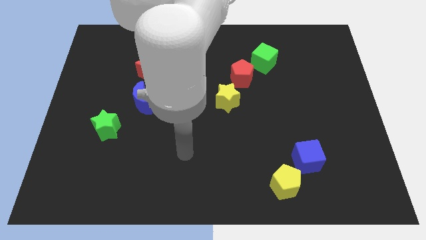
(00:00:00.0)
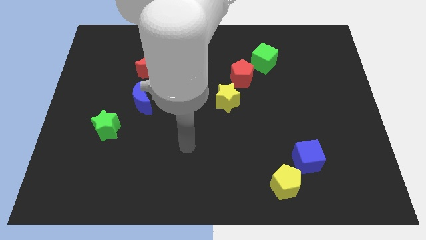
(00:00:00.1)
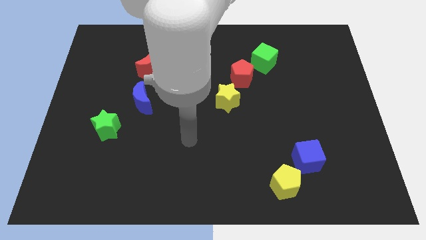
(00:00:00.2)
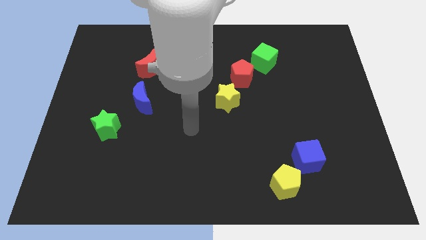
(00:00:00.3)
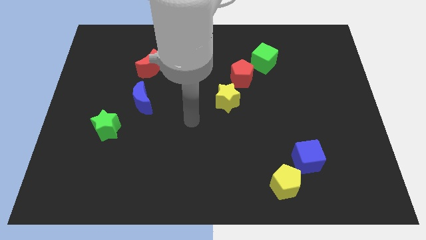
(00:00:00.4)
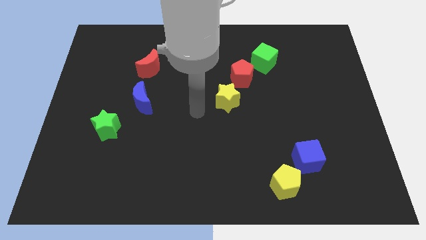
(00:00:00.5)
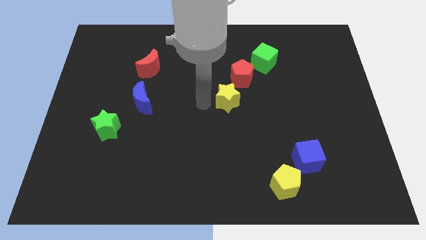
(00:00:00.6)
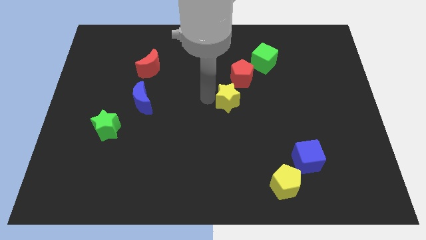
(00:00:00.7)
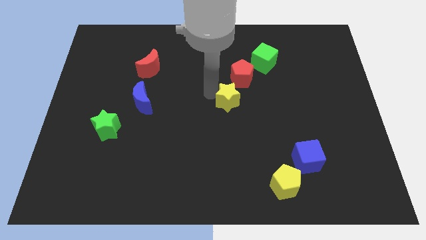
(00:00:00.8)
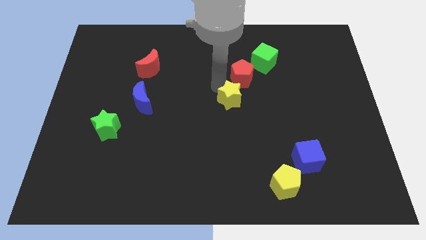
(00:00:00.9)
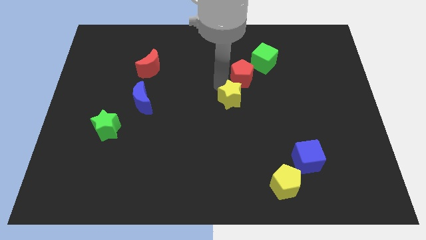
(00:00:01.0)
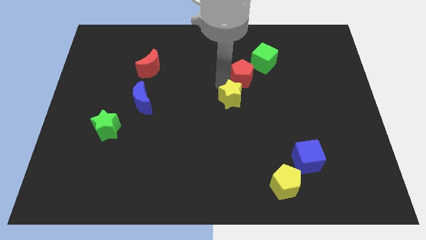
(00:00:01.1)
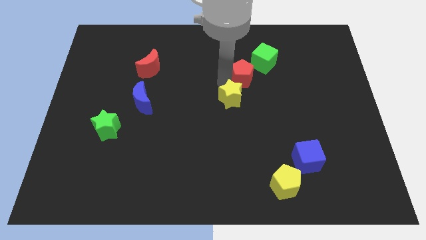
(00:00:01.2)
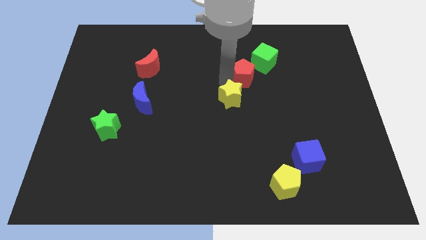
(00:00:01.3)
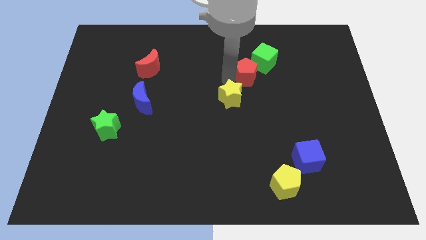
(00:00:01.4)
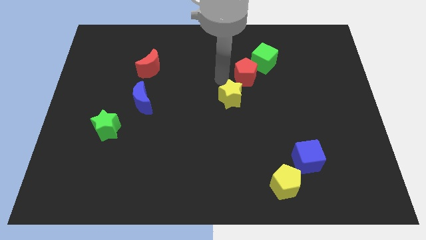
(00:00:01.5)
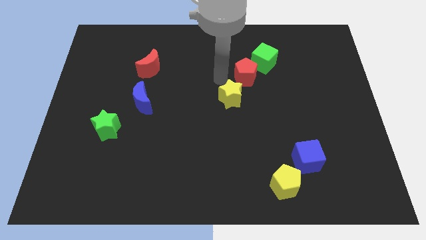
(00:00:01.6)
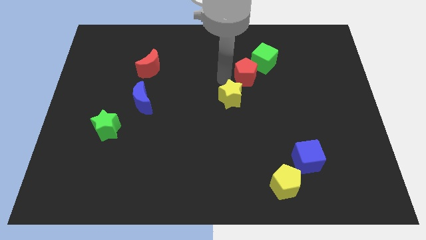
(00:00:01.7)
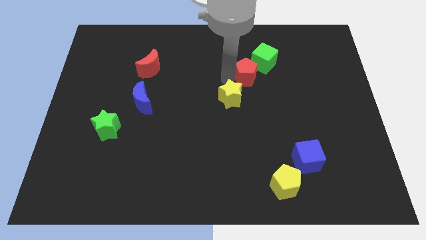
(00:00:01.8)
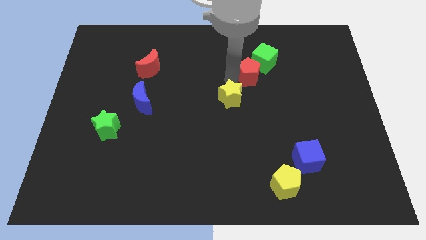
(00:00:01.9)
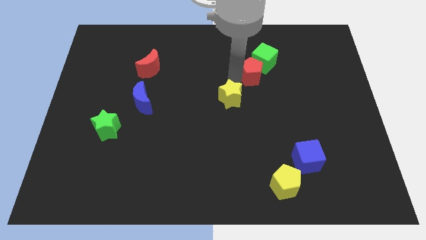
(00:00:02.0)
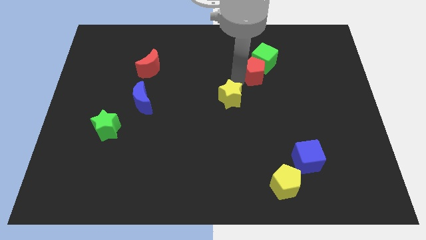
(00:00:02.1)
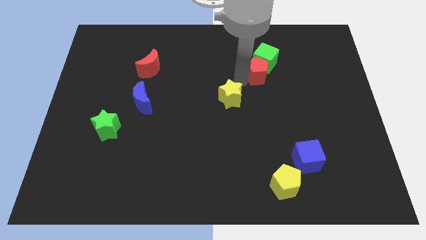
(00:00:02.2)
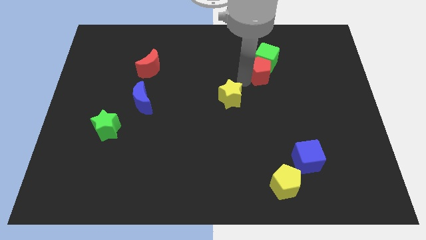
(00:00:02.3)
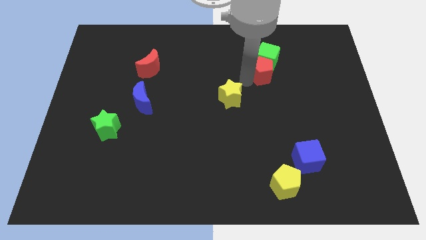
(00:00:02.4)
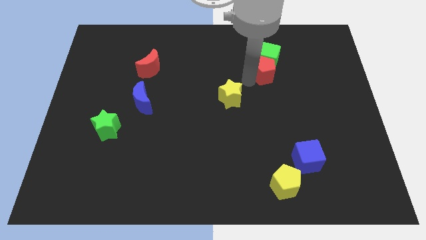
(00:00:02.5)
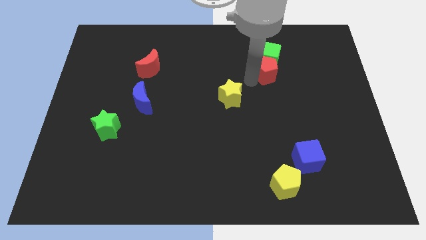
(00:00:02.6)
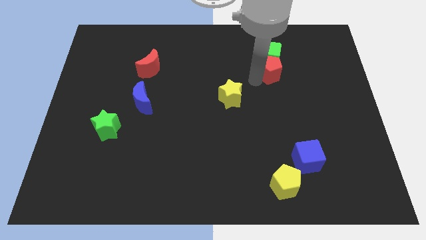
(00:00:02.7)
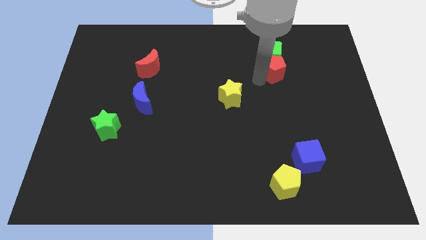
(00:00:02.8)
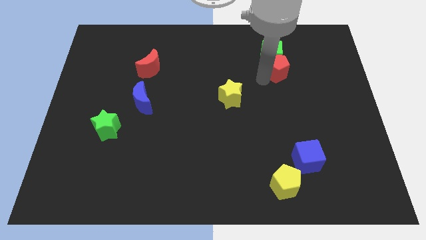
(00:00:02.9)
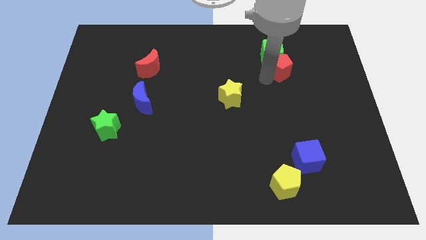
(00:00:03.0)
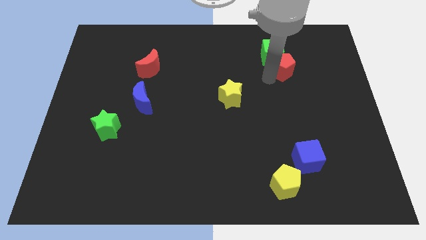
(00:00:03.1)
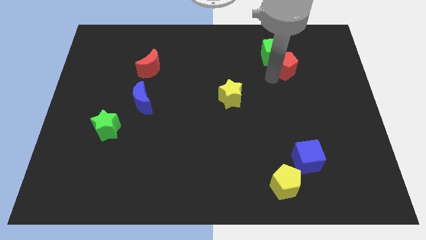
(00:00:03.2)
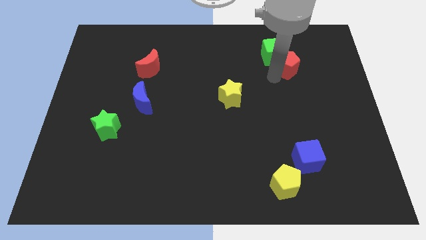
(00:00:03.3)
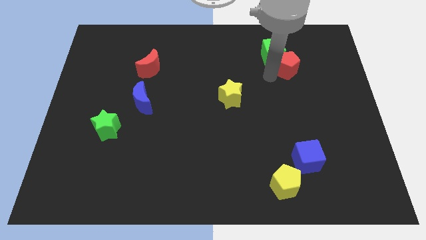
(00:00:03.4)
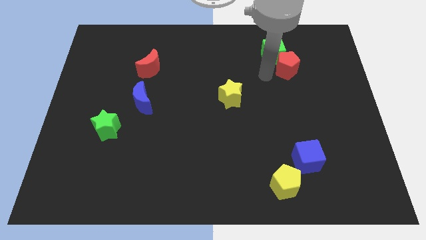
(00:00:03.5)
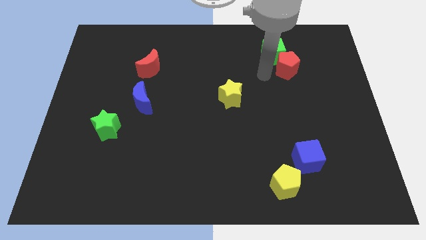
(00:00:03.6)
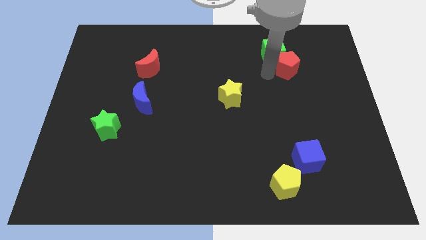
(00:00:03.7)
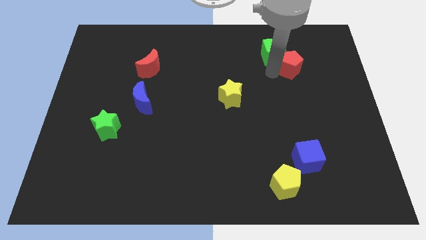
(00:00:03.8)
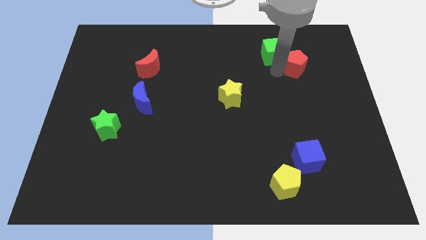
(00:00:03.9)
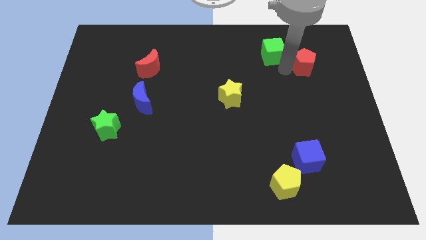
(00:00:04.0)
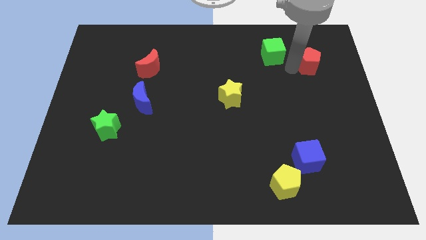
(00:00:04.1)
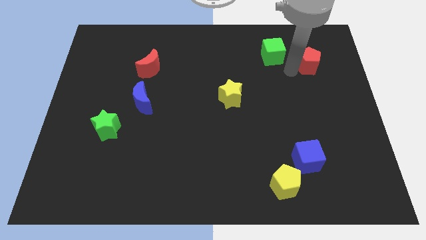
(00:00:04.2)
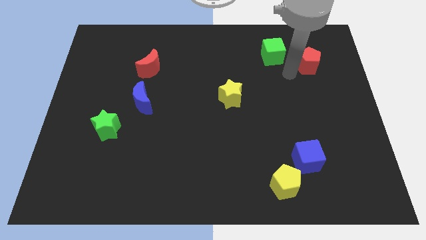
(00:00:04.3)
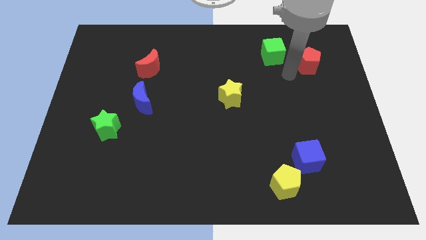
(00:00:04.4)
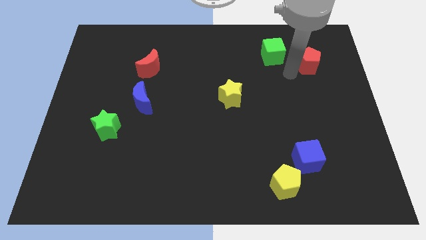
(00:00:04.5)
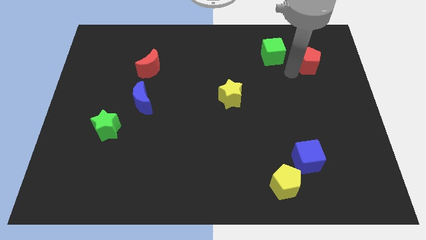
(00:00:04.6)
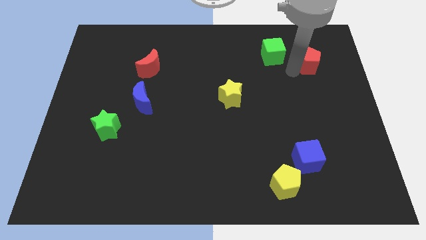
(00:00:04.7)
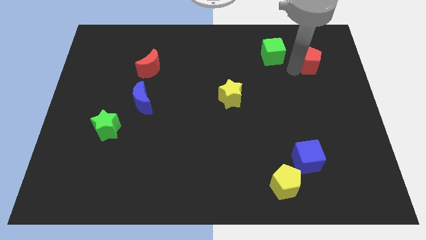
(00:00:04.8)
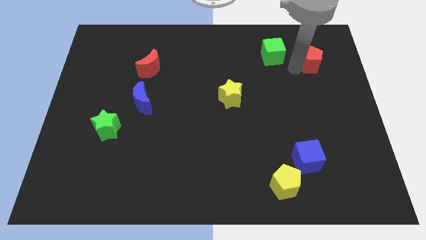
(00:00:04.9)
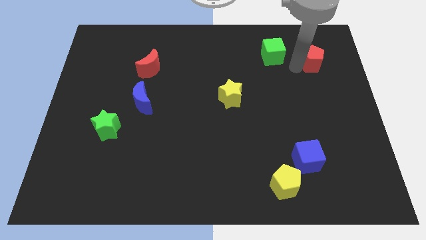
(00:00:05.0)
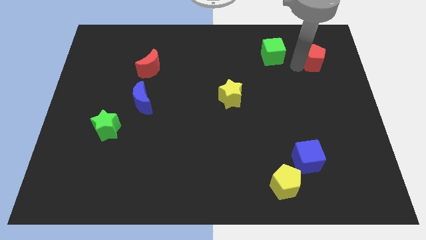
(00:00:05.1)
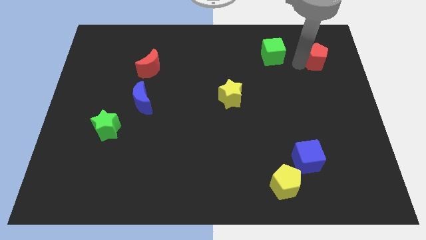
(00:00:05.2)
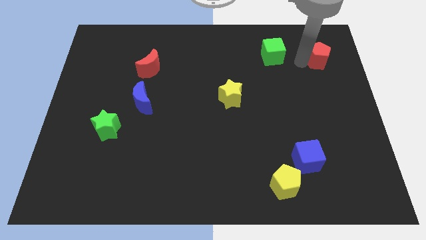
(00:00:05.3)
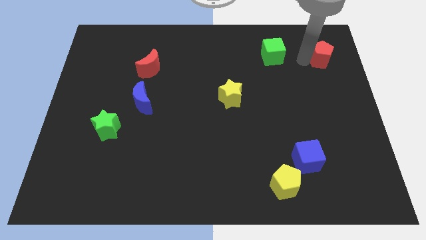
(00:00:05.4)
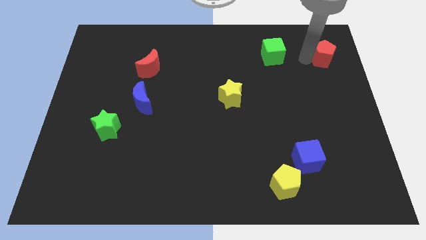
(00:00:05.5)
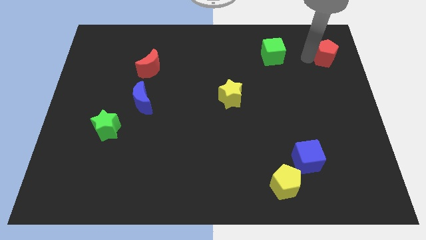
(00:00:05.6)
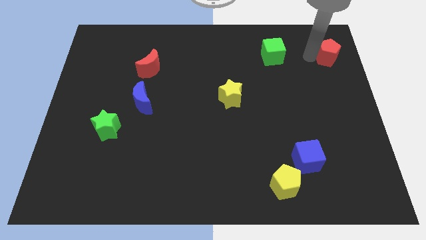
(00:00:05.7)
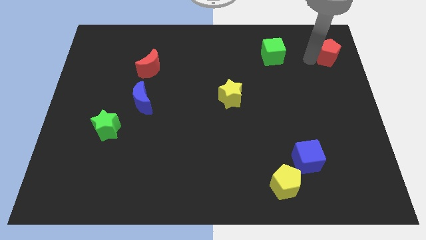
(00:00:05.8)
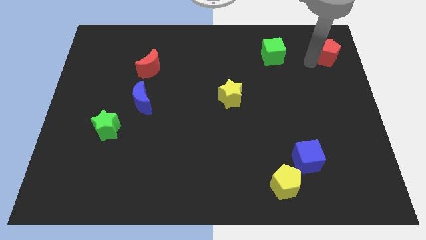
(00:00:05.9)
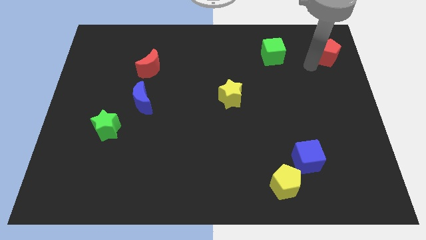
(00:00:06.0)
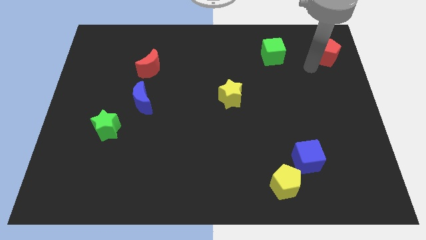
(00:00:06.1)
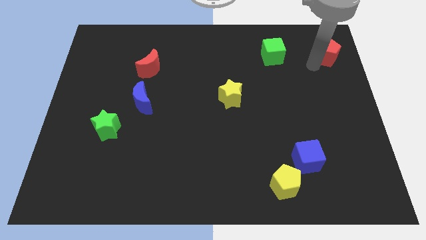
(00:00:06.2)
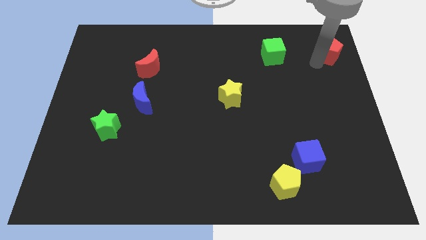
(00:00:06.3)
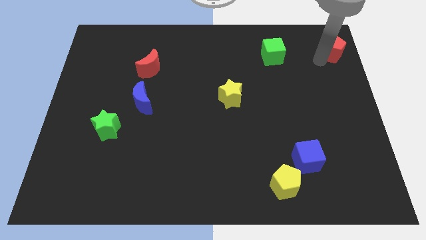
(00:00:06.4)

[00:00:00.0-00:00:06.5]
slide the red pentagon to the upper right corner
